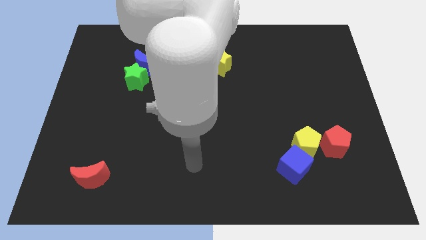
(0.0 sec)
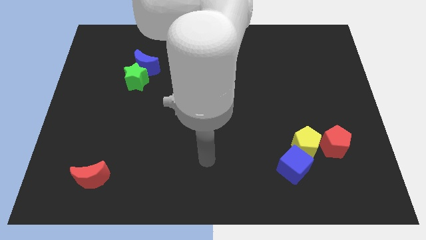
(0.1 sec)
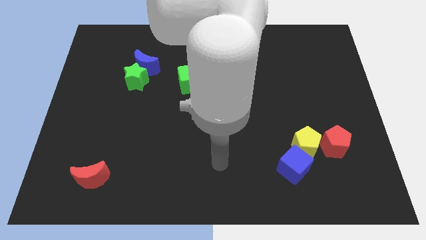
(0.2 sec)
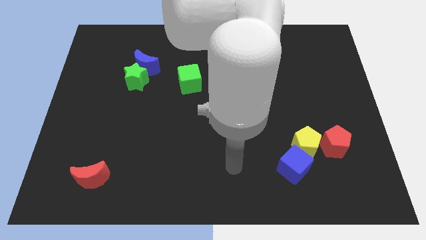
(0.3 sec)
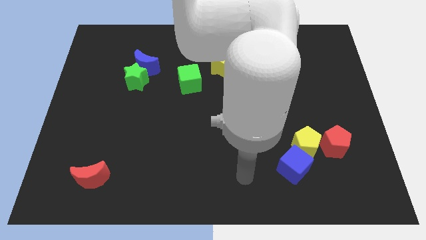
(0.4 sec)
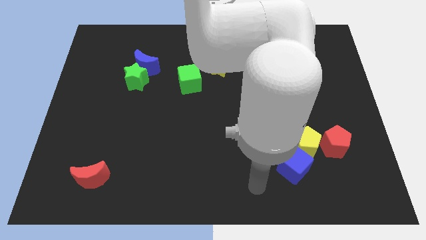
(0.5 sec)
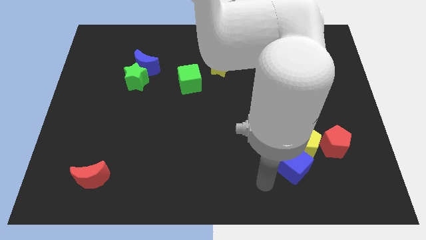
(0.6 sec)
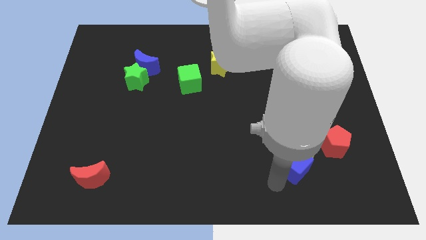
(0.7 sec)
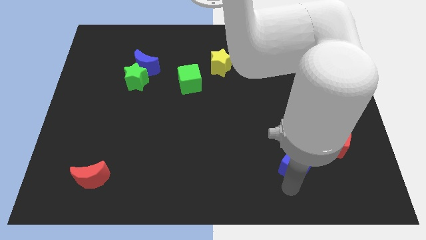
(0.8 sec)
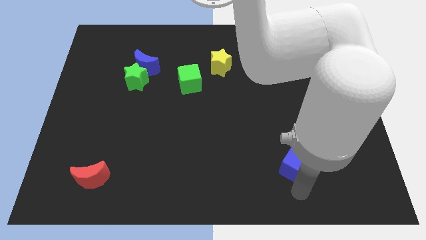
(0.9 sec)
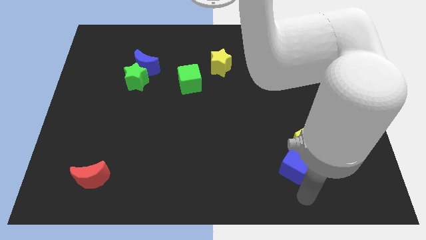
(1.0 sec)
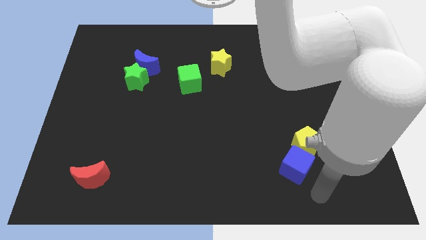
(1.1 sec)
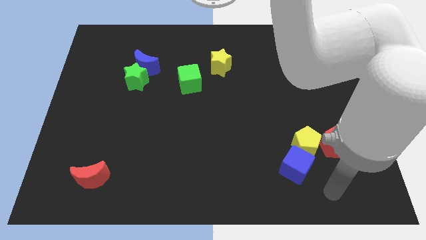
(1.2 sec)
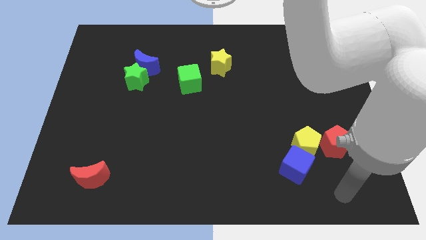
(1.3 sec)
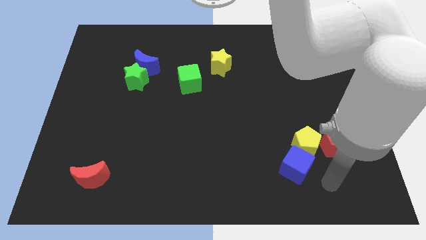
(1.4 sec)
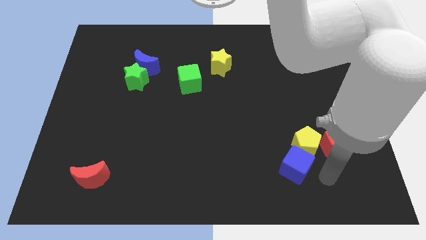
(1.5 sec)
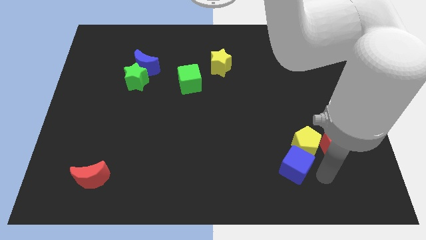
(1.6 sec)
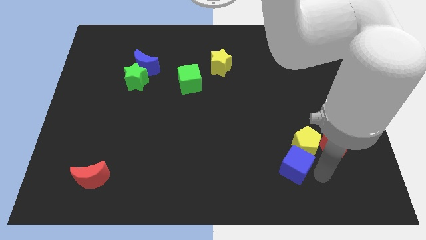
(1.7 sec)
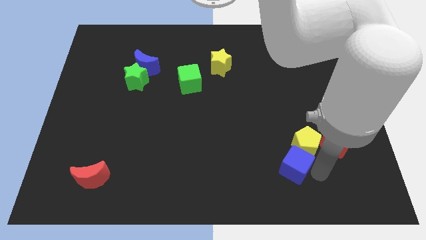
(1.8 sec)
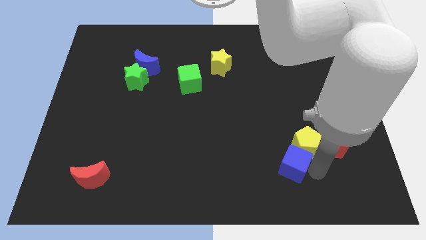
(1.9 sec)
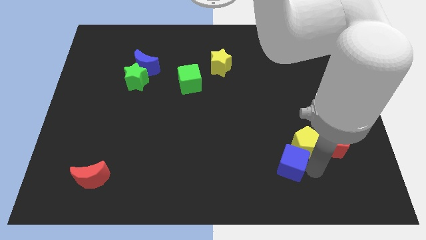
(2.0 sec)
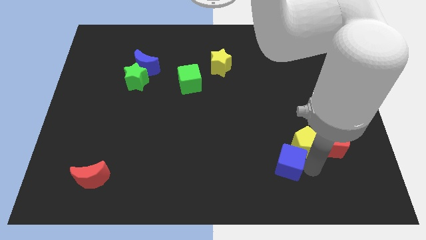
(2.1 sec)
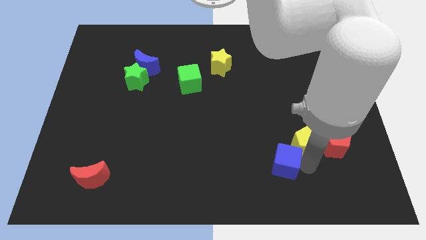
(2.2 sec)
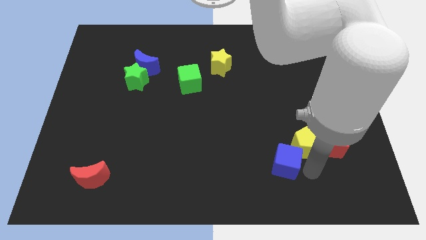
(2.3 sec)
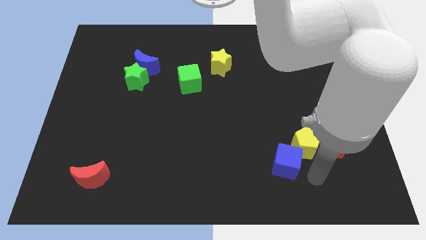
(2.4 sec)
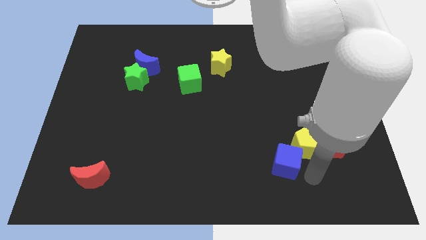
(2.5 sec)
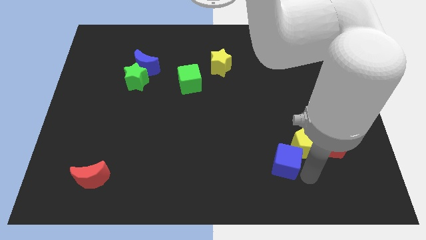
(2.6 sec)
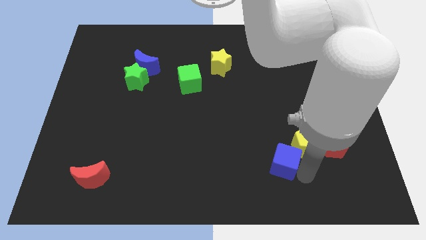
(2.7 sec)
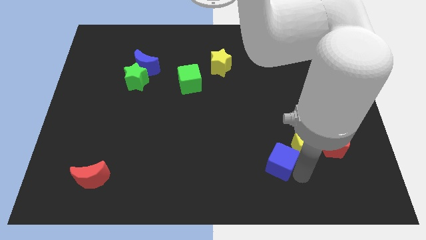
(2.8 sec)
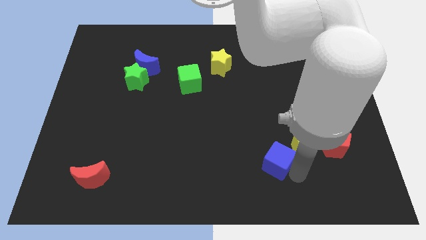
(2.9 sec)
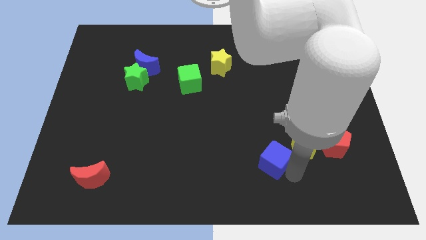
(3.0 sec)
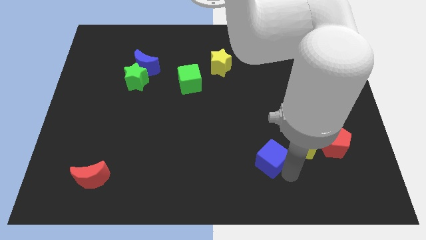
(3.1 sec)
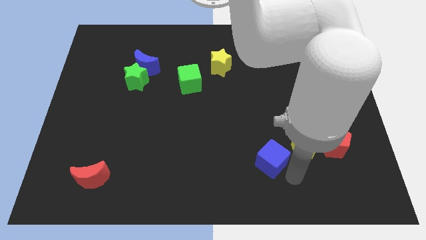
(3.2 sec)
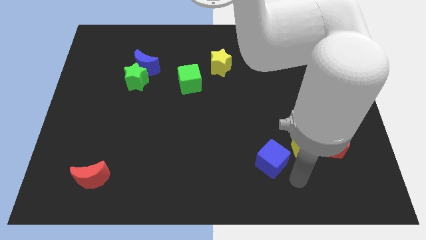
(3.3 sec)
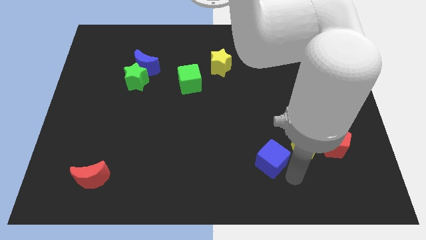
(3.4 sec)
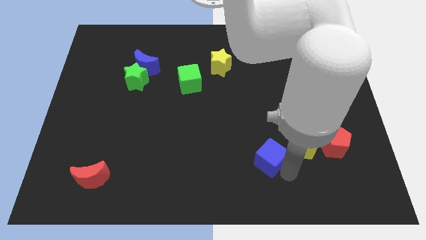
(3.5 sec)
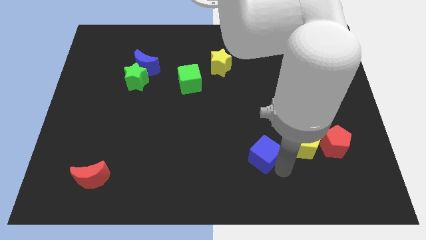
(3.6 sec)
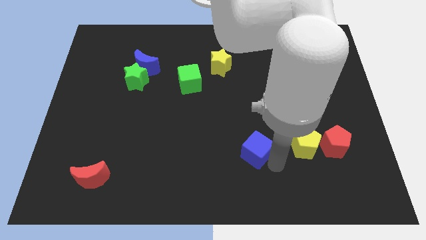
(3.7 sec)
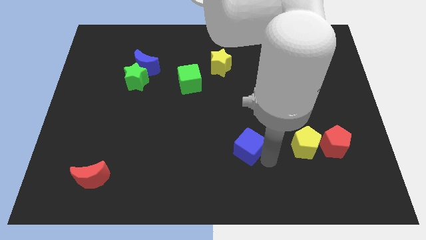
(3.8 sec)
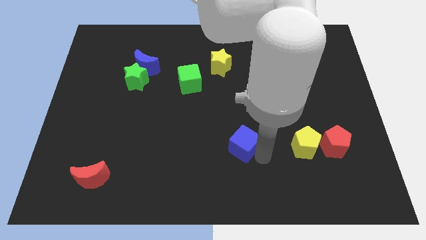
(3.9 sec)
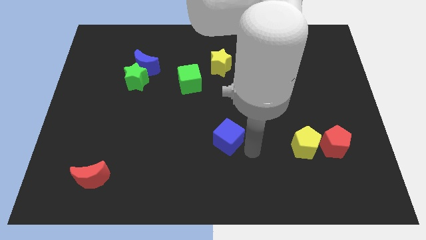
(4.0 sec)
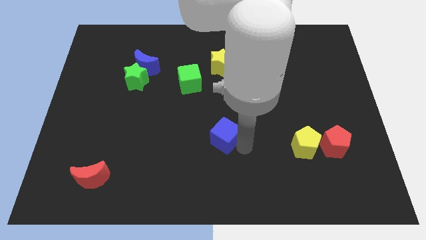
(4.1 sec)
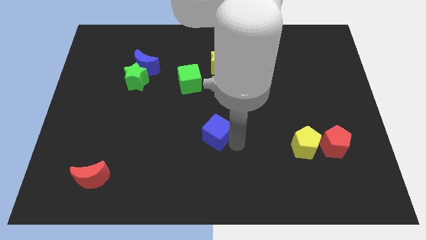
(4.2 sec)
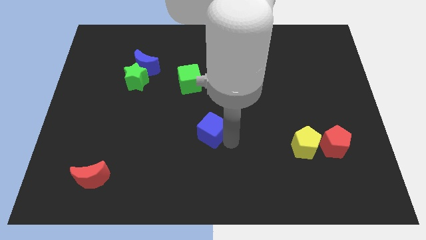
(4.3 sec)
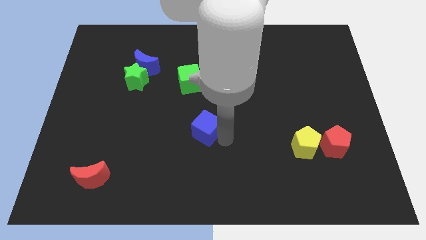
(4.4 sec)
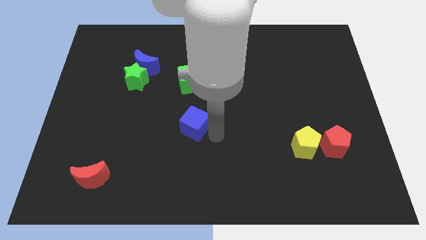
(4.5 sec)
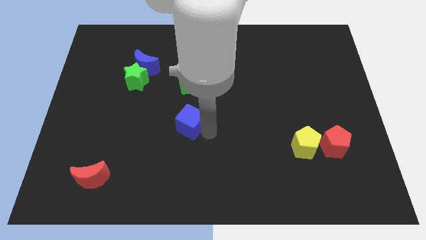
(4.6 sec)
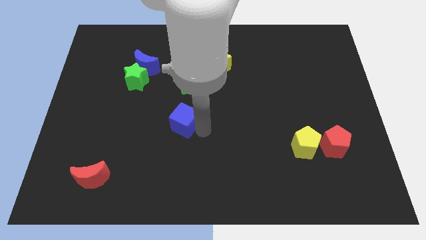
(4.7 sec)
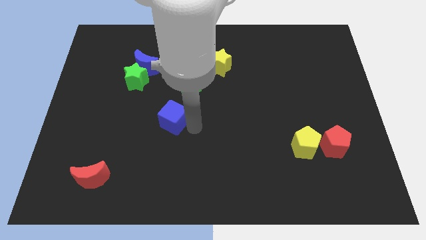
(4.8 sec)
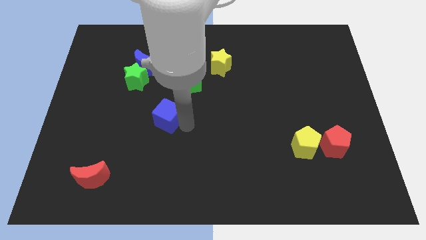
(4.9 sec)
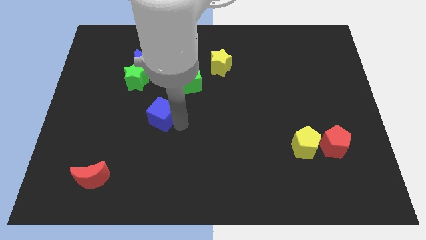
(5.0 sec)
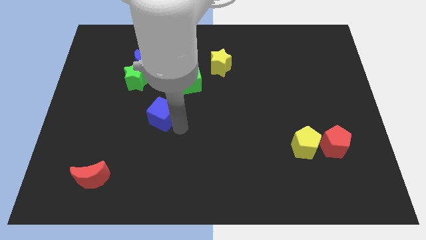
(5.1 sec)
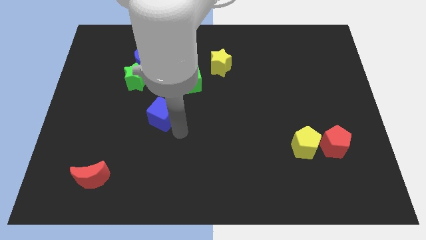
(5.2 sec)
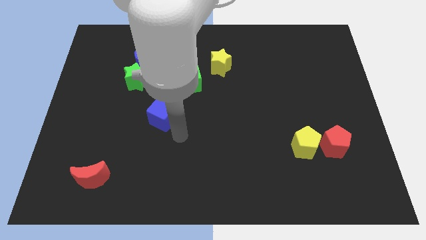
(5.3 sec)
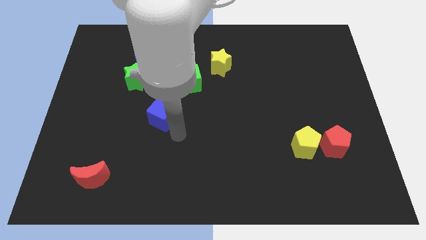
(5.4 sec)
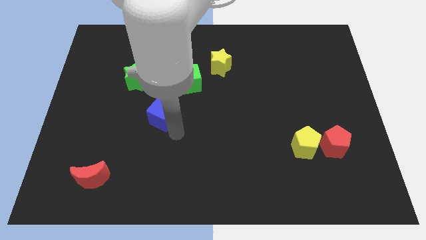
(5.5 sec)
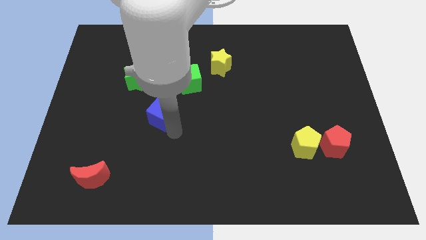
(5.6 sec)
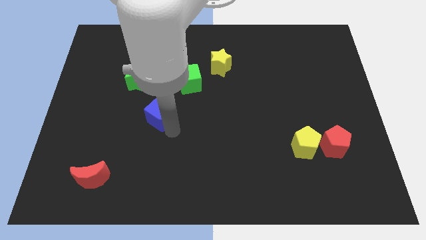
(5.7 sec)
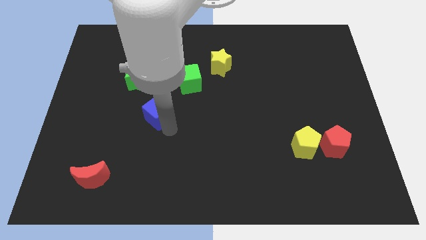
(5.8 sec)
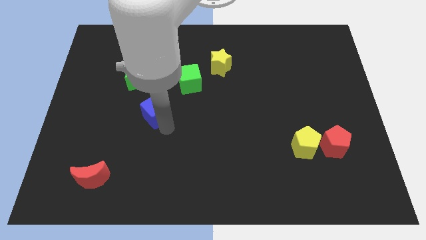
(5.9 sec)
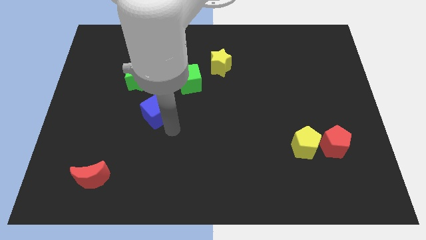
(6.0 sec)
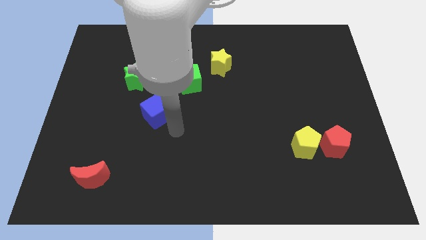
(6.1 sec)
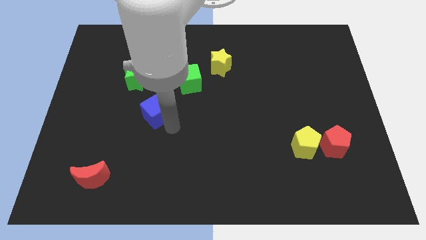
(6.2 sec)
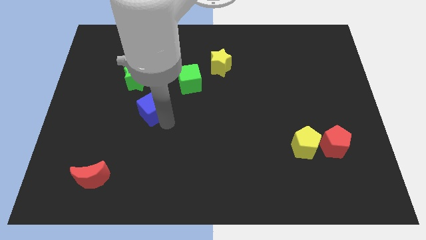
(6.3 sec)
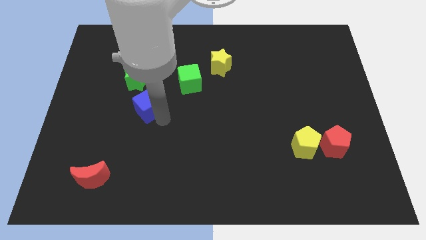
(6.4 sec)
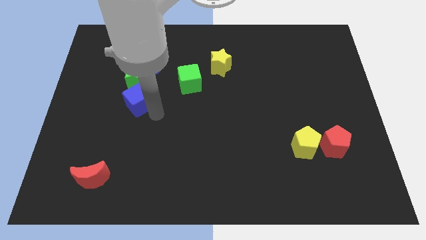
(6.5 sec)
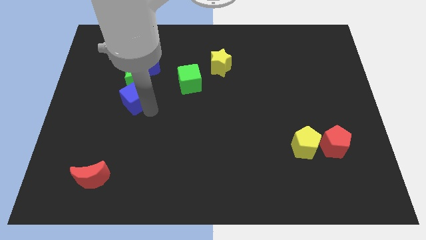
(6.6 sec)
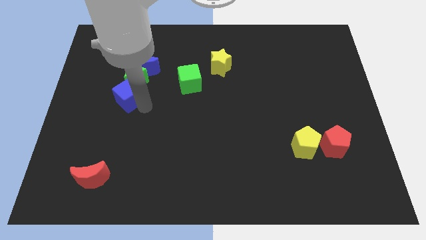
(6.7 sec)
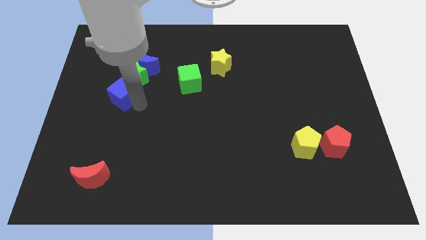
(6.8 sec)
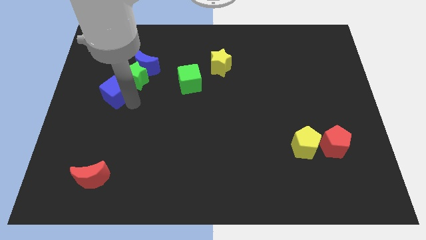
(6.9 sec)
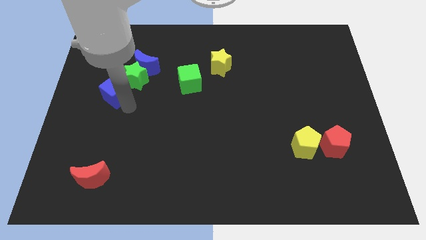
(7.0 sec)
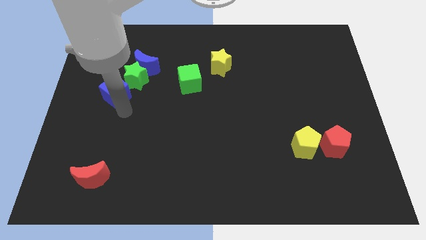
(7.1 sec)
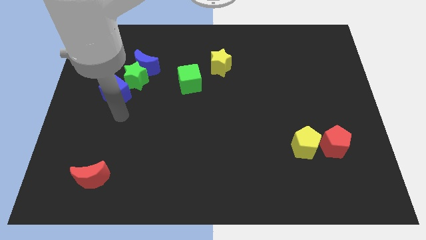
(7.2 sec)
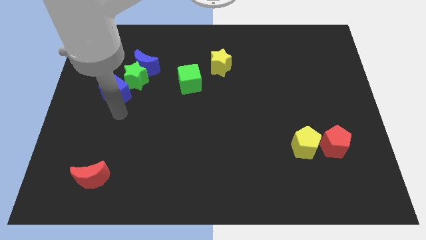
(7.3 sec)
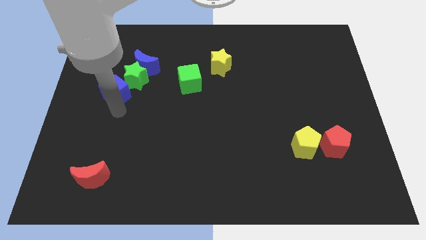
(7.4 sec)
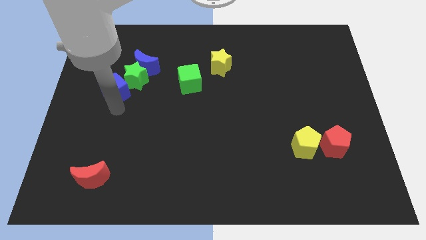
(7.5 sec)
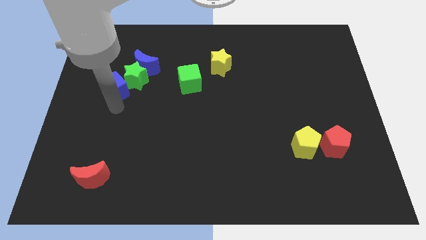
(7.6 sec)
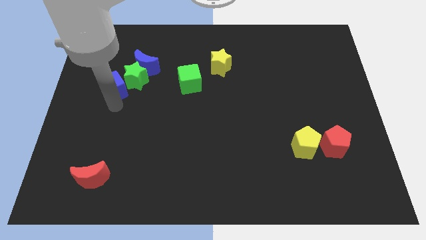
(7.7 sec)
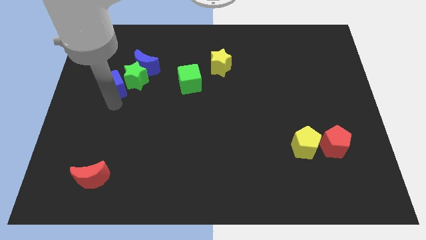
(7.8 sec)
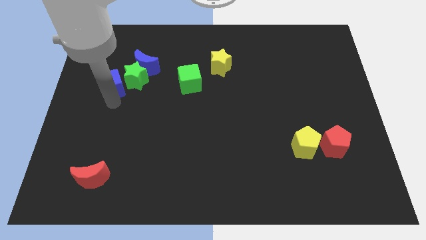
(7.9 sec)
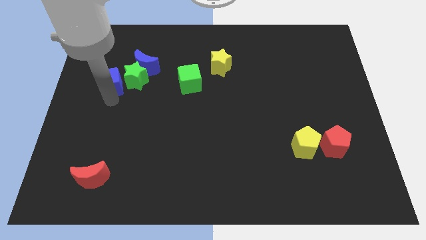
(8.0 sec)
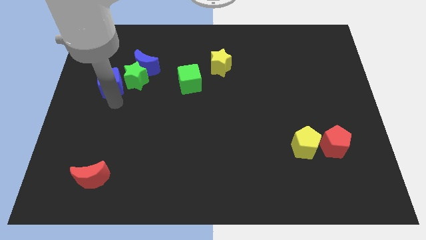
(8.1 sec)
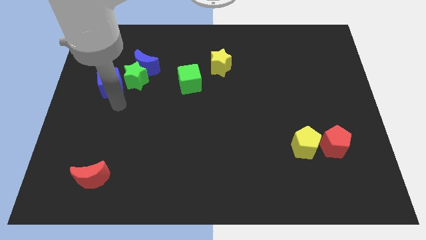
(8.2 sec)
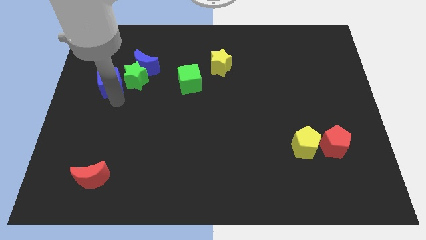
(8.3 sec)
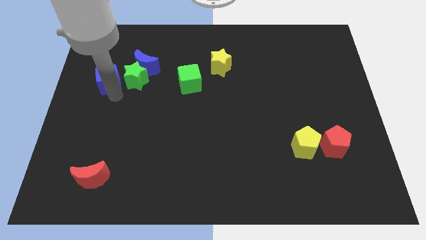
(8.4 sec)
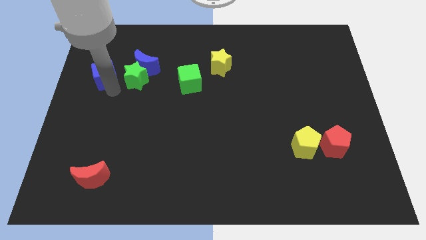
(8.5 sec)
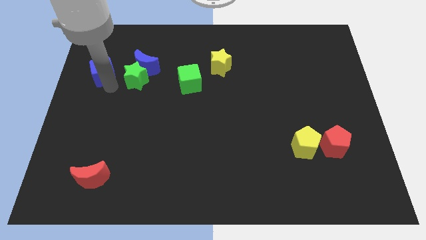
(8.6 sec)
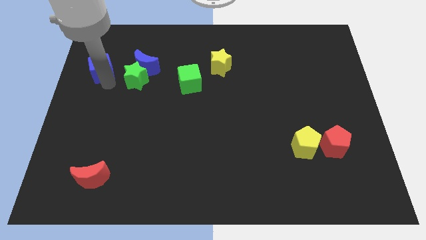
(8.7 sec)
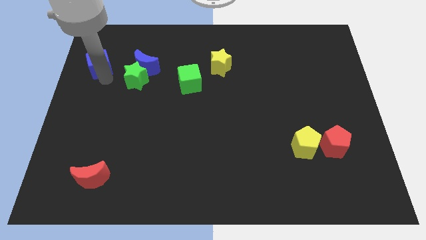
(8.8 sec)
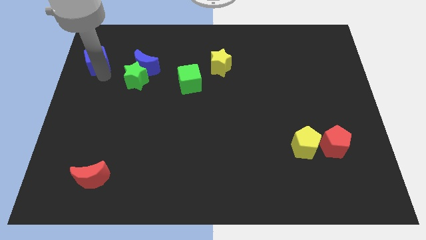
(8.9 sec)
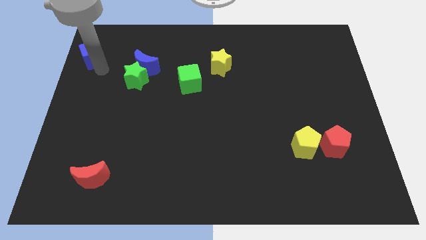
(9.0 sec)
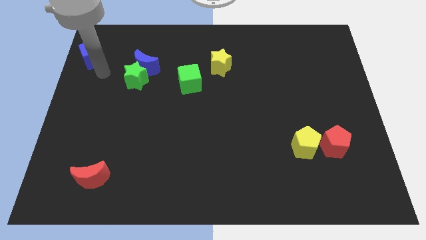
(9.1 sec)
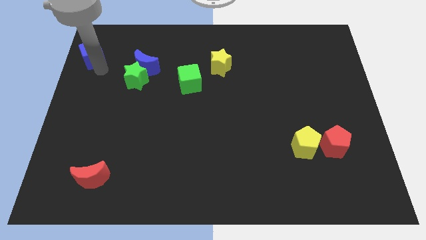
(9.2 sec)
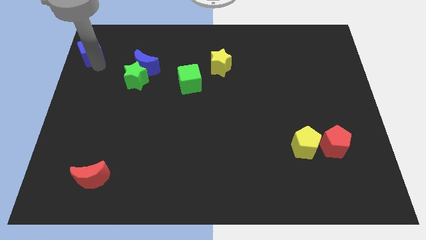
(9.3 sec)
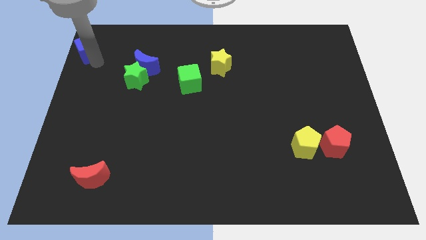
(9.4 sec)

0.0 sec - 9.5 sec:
slide the blue cube to the upper left corner
